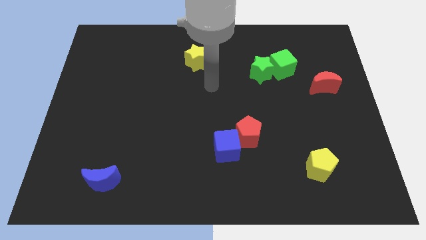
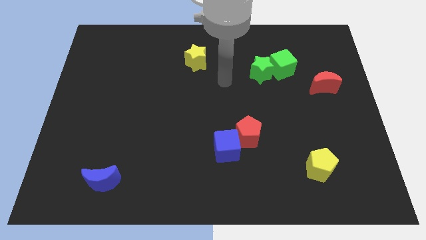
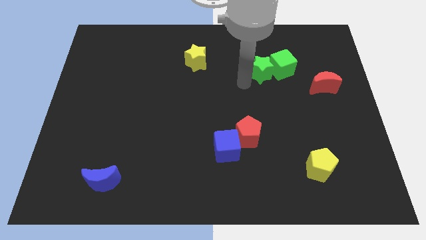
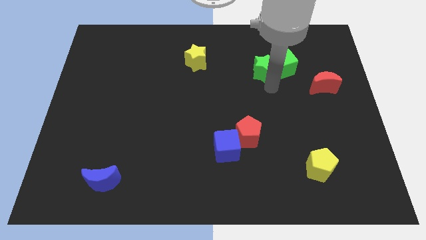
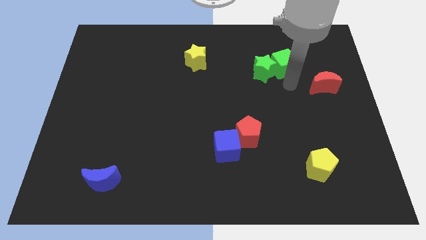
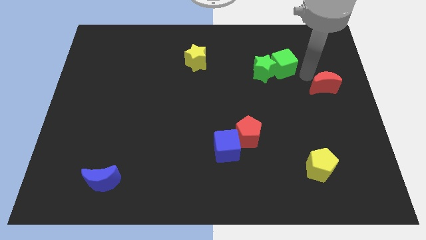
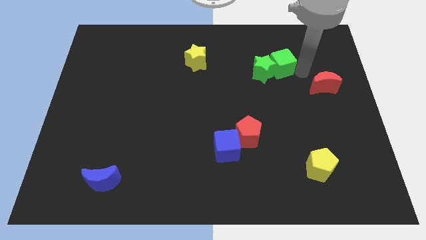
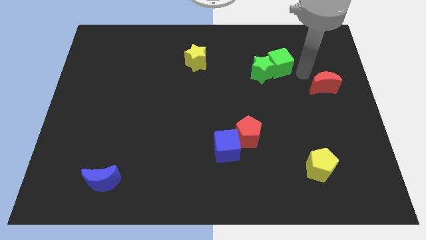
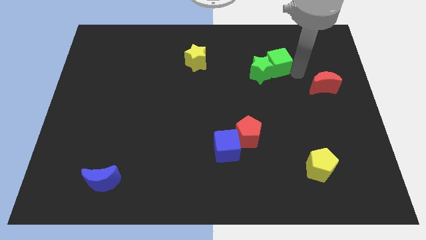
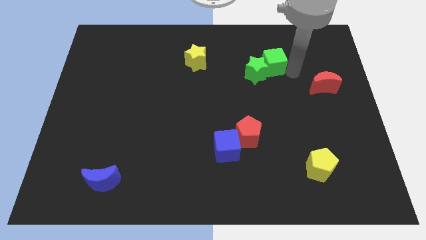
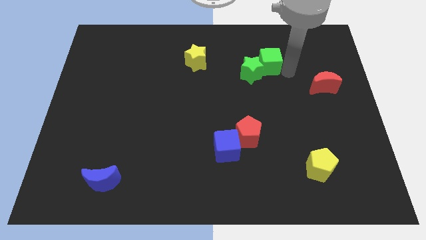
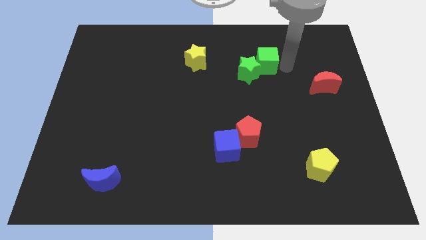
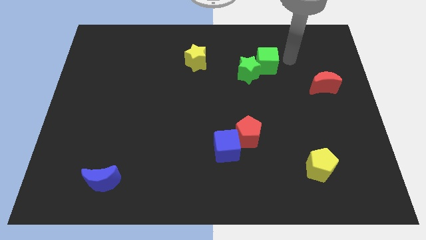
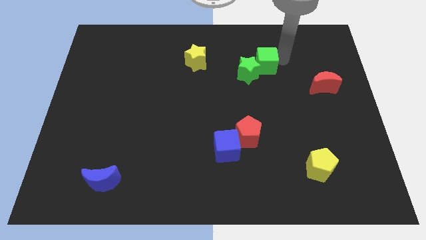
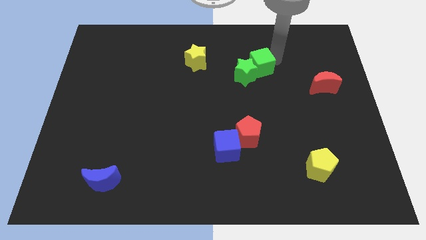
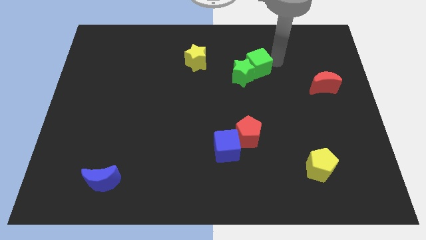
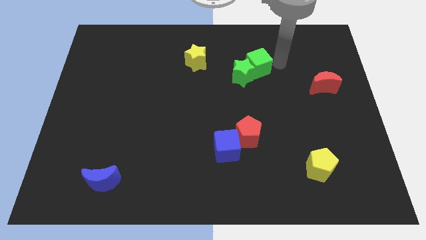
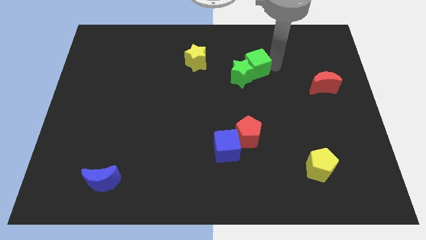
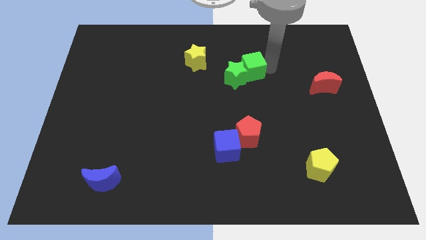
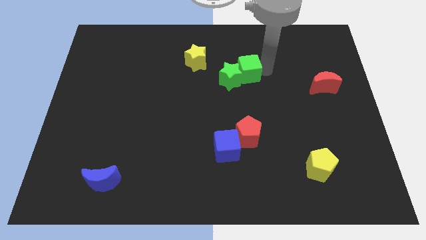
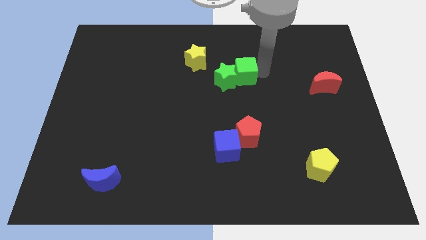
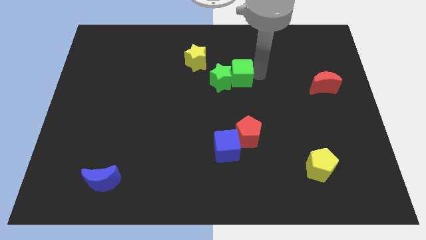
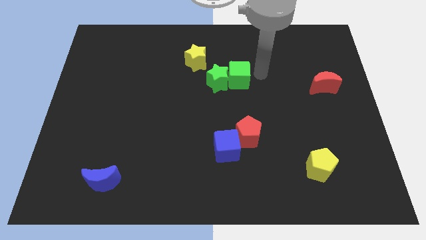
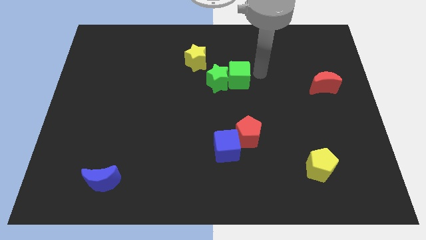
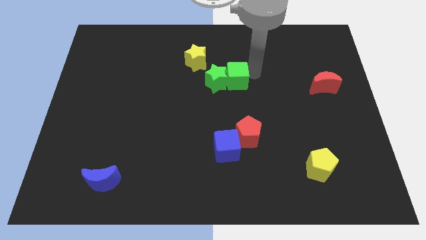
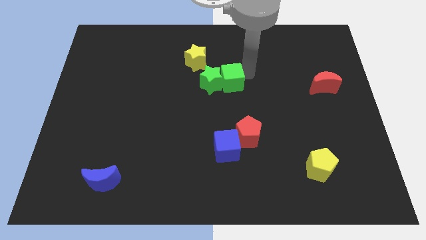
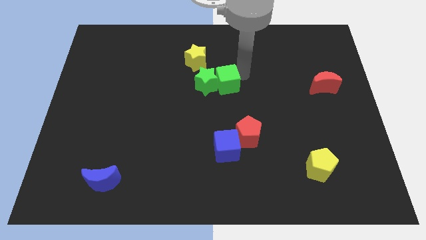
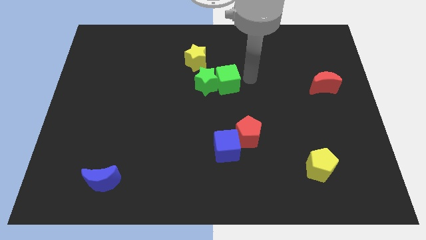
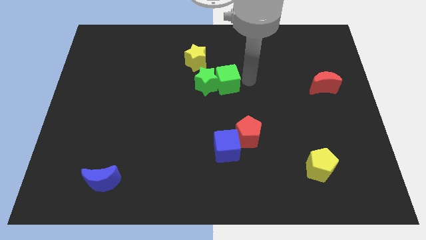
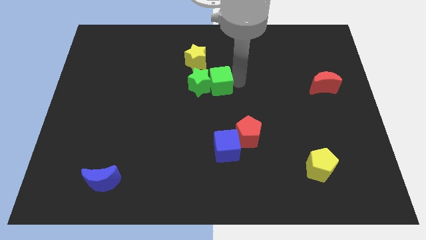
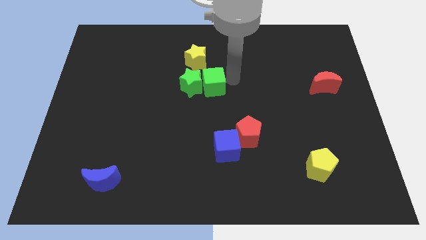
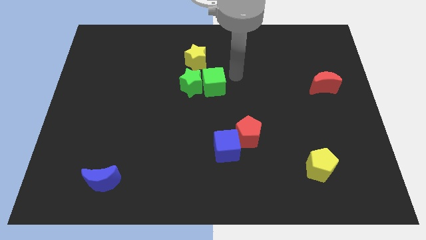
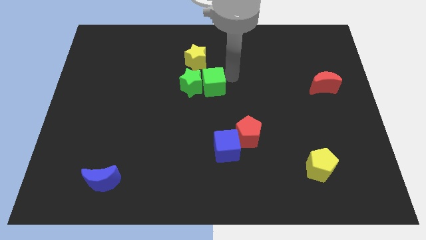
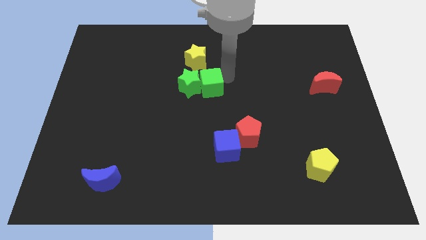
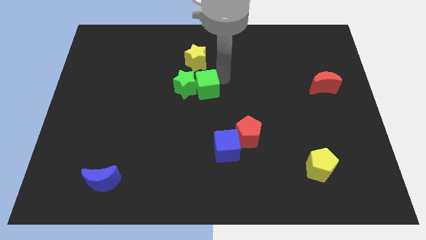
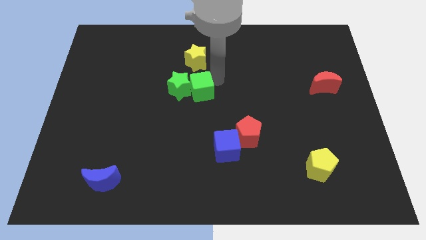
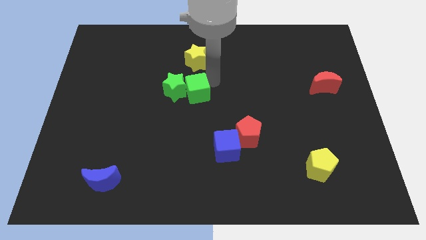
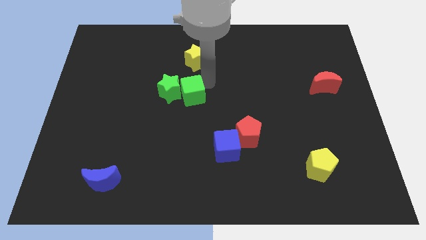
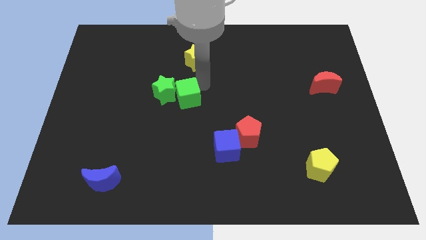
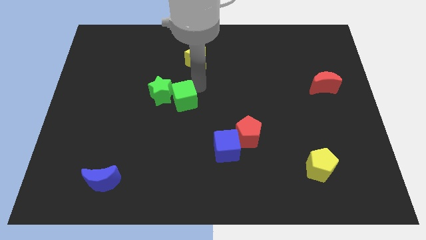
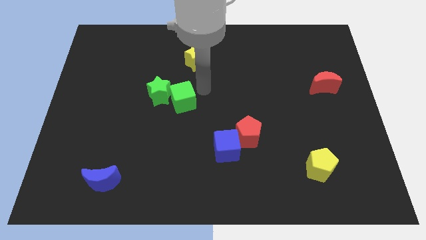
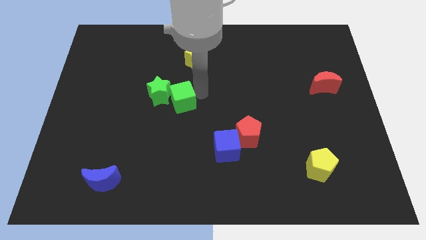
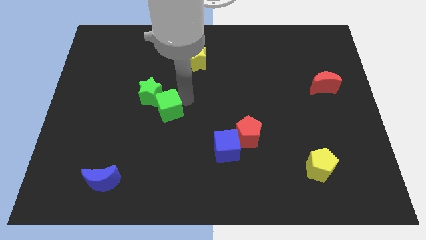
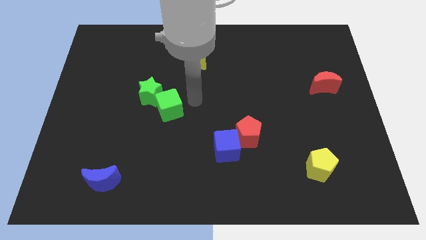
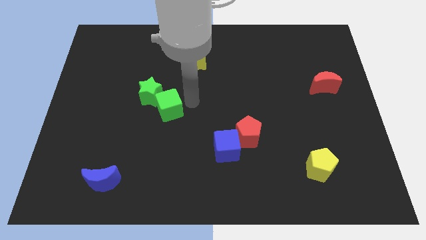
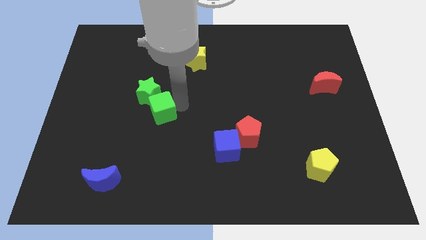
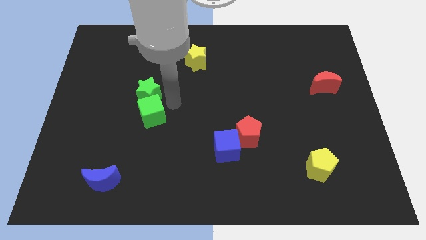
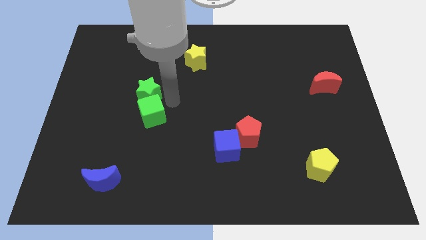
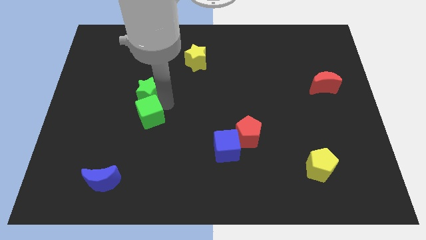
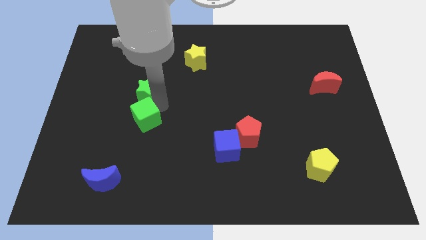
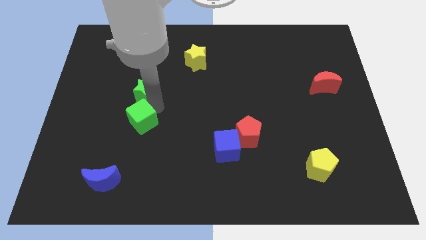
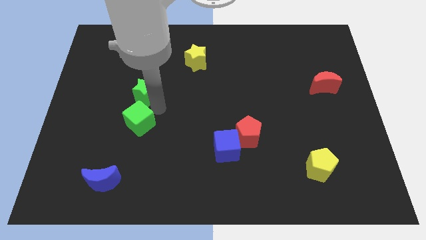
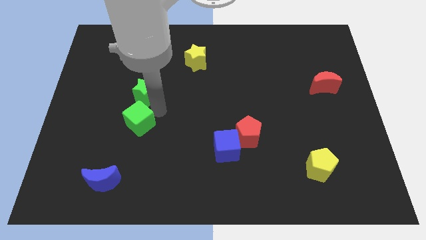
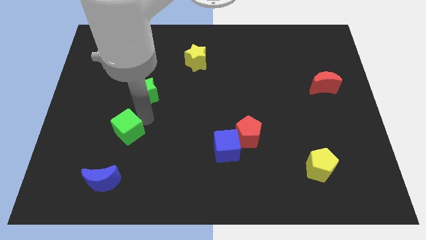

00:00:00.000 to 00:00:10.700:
slide the green cube to the top side of the blue moon

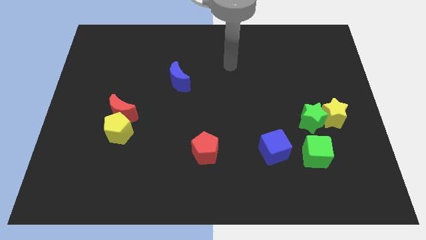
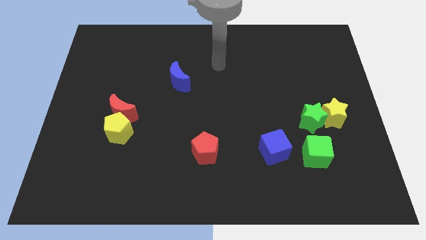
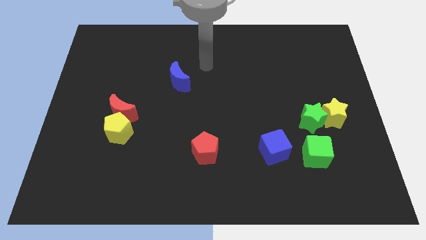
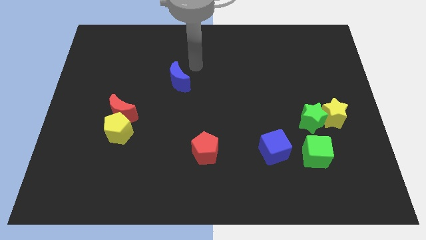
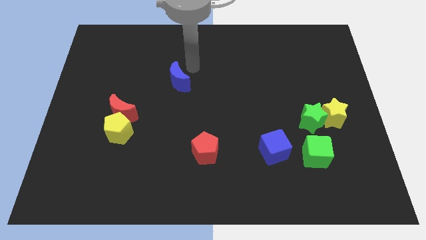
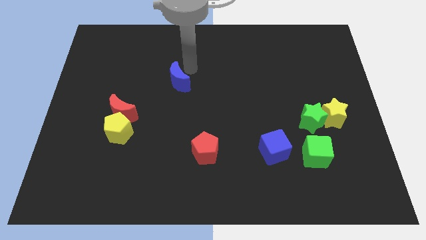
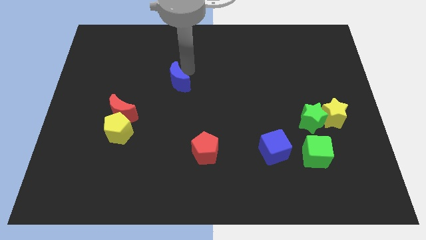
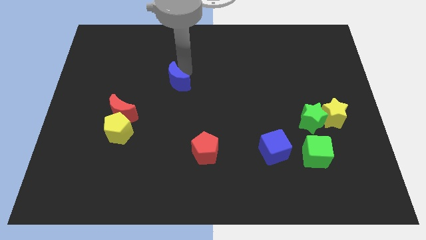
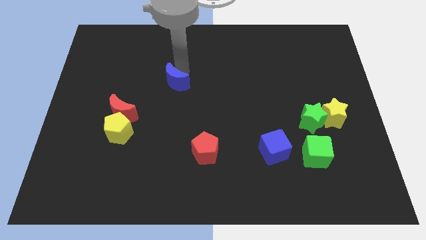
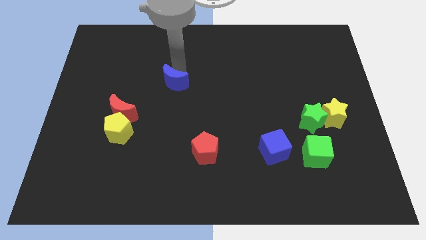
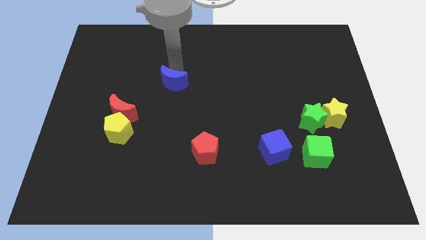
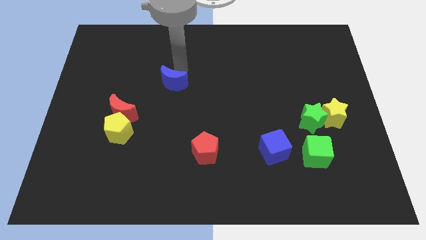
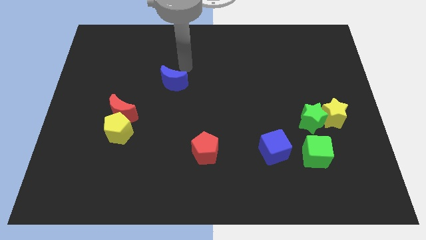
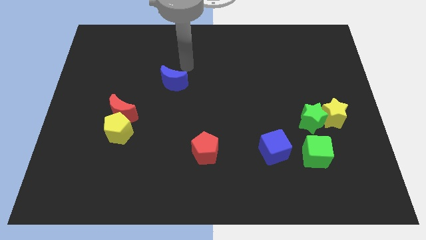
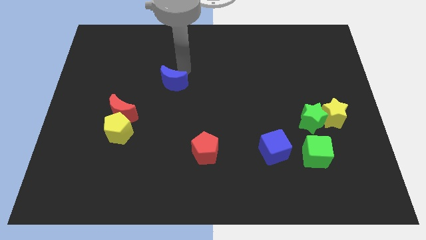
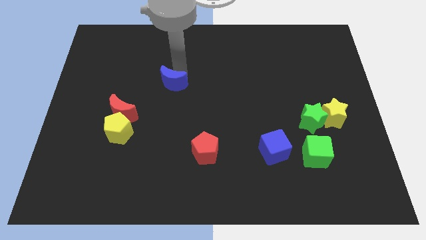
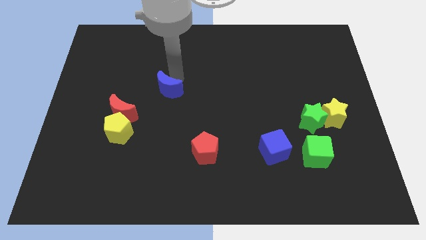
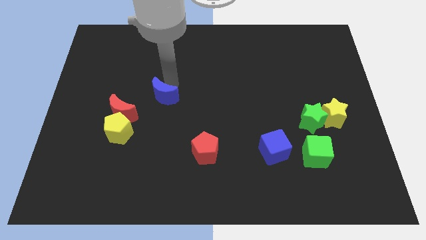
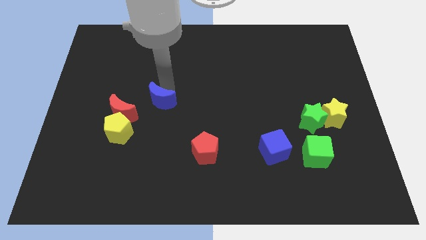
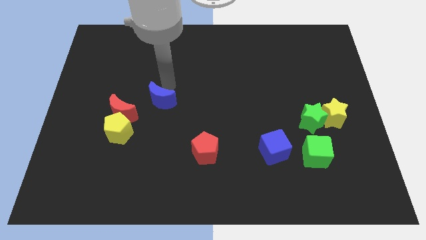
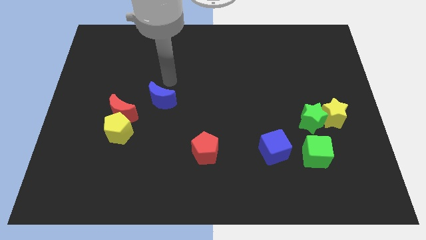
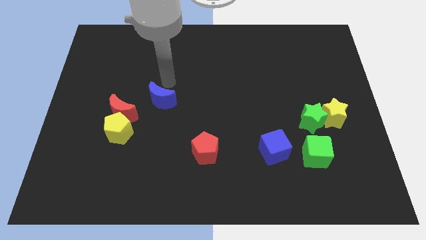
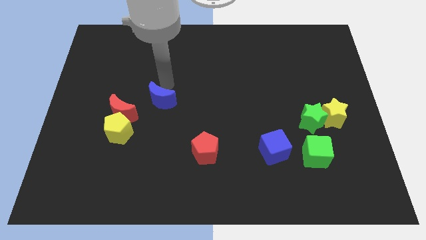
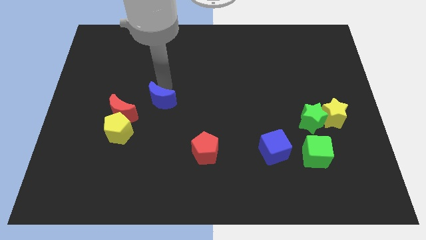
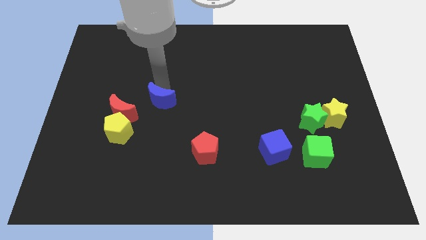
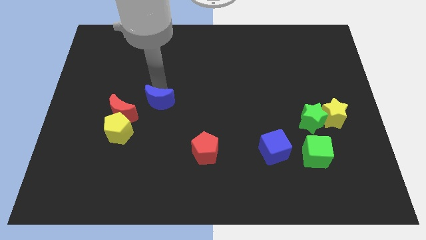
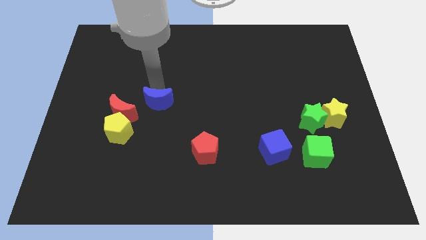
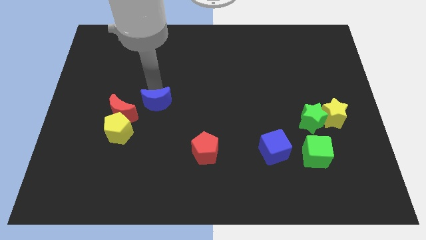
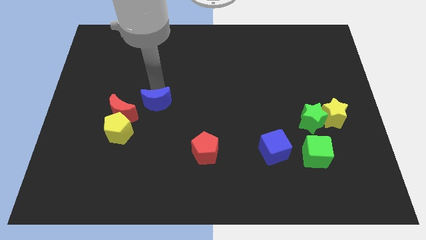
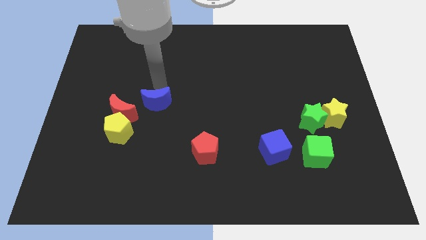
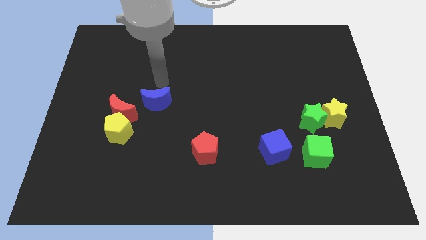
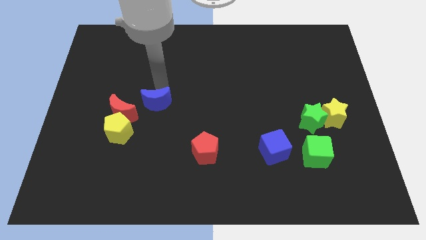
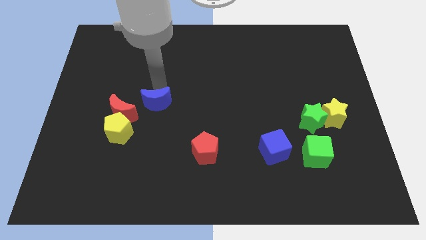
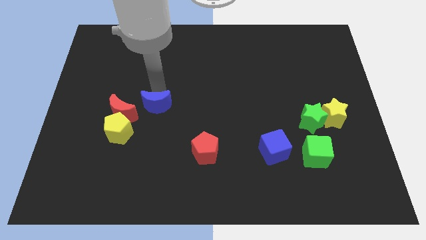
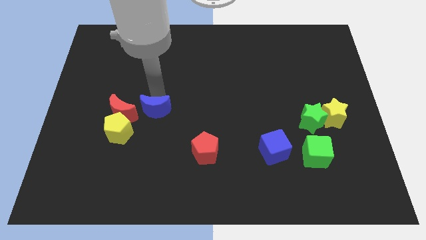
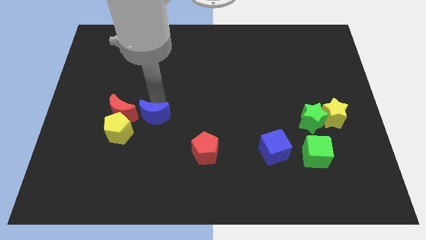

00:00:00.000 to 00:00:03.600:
push the blue moon diagonally down and to the right of the red moon
